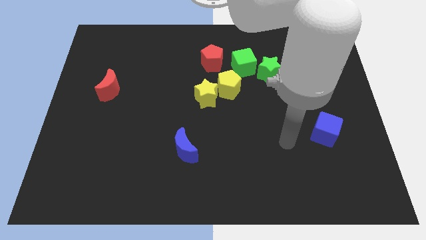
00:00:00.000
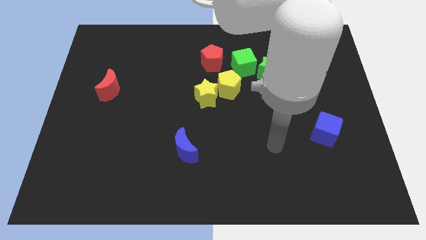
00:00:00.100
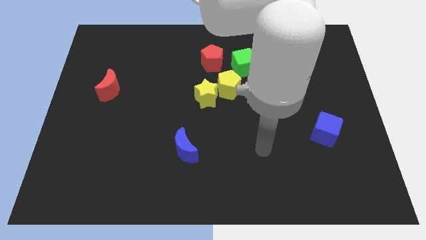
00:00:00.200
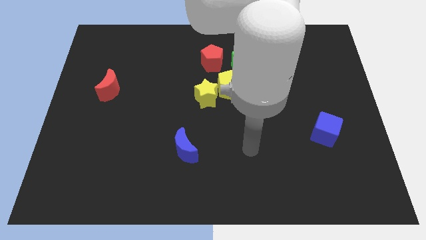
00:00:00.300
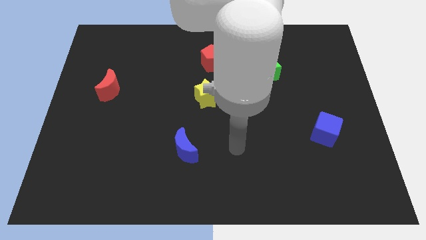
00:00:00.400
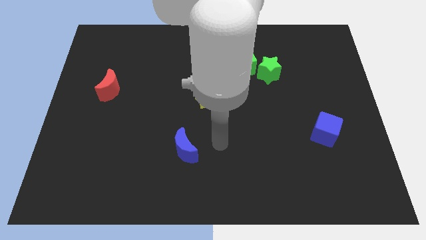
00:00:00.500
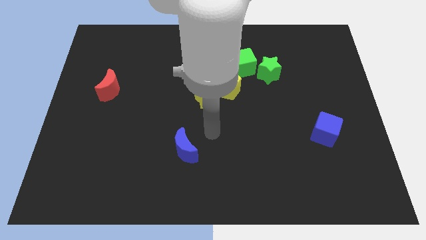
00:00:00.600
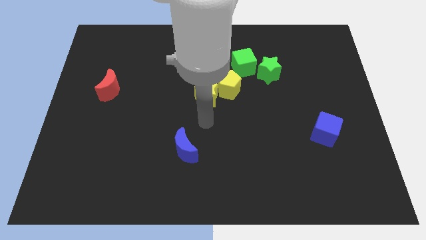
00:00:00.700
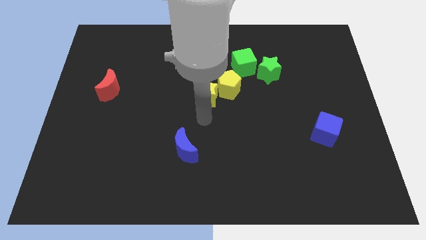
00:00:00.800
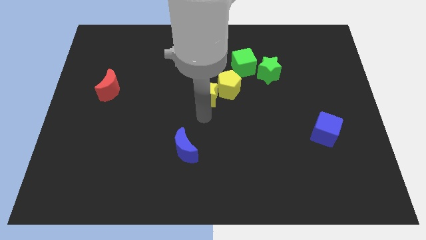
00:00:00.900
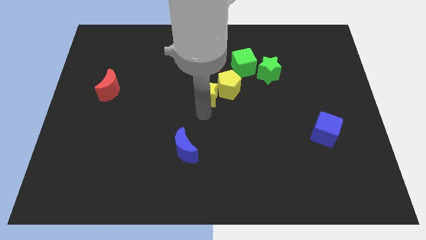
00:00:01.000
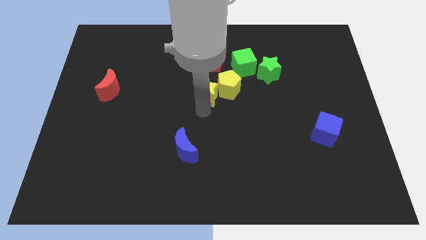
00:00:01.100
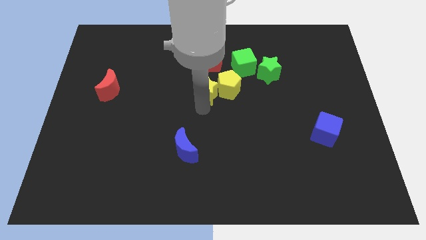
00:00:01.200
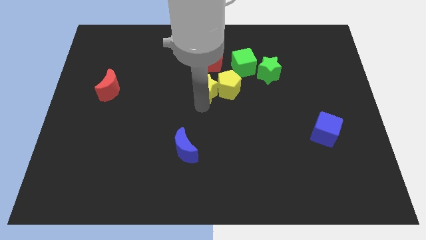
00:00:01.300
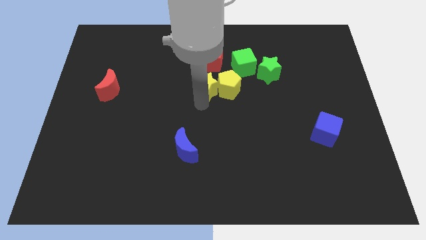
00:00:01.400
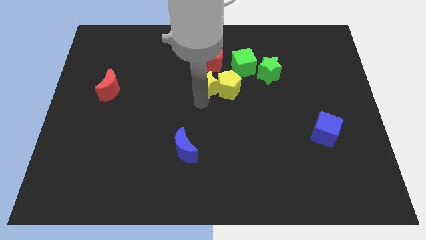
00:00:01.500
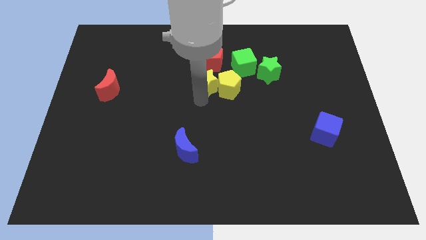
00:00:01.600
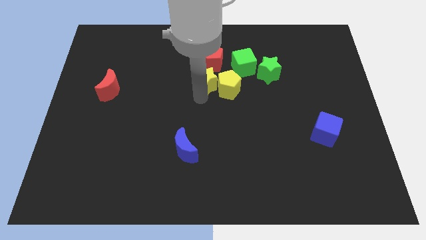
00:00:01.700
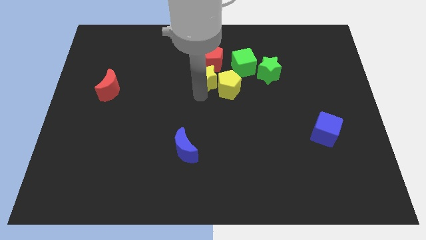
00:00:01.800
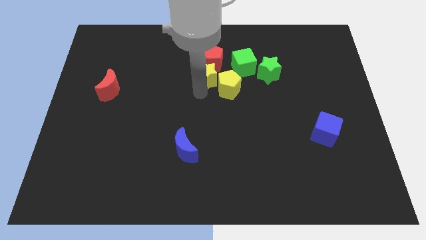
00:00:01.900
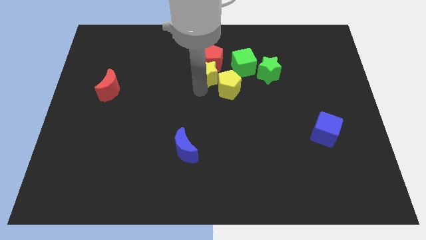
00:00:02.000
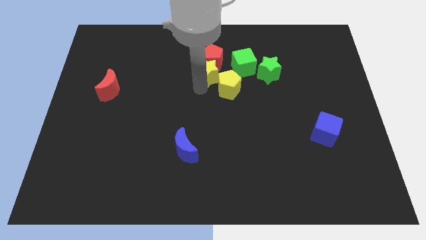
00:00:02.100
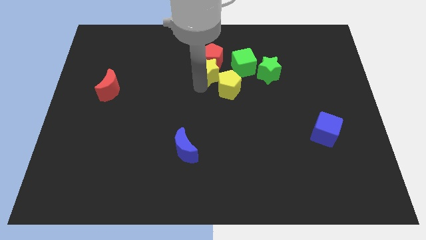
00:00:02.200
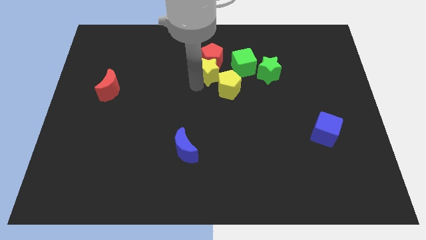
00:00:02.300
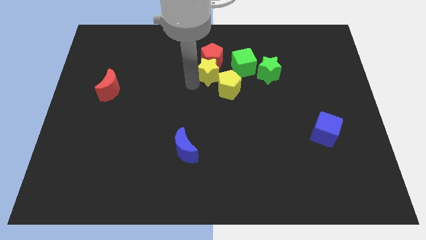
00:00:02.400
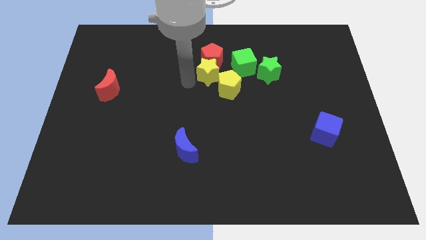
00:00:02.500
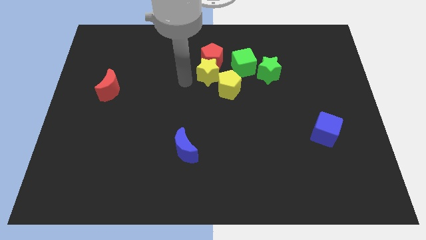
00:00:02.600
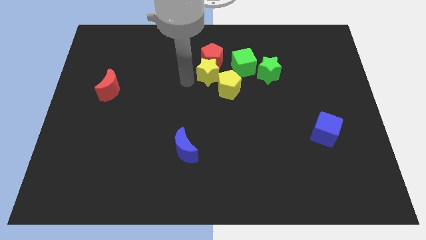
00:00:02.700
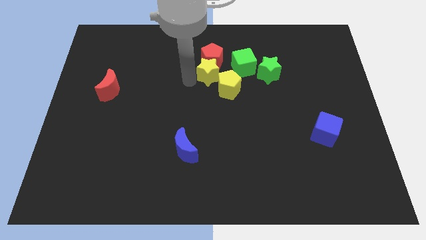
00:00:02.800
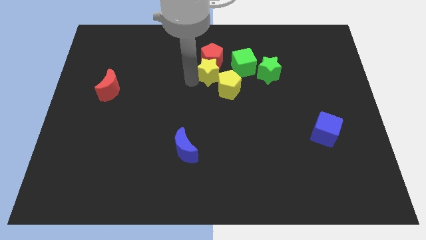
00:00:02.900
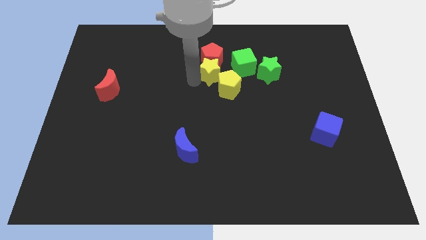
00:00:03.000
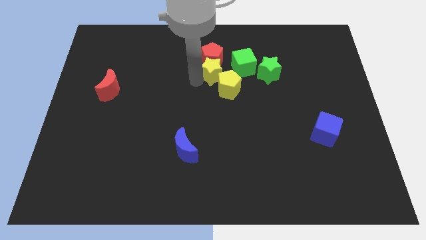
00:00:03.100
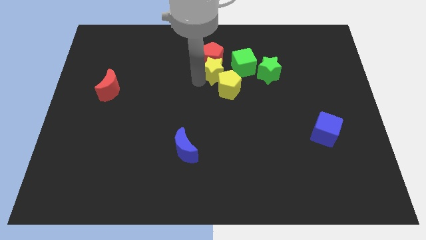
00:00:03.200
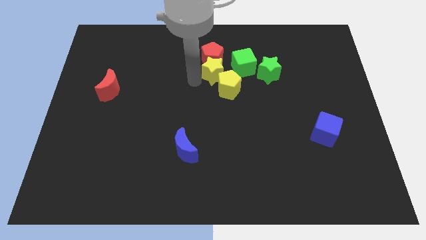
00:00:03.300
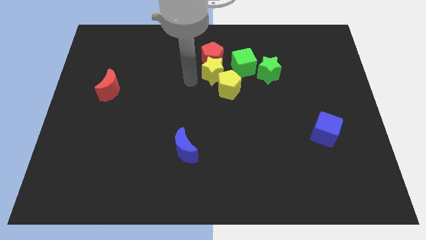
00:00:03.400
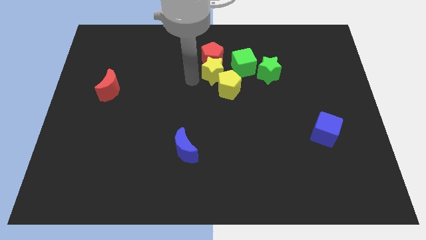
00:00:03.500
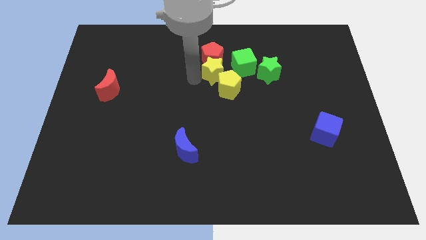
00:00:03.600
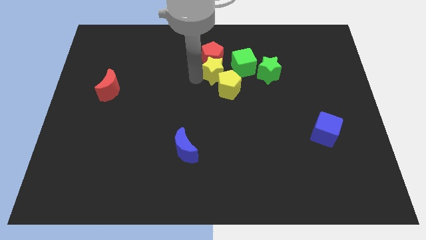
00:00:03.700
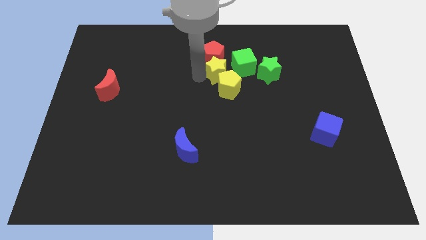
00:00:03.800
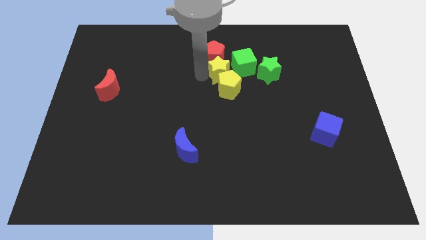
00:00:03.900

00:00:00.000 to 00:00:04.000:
push the yellow star a little bit diagonally up and right

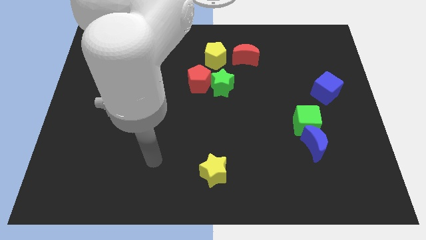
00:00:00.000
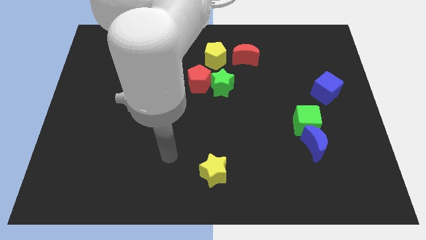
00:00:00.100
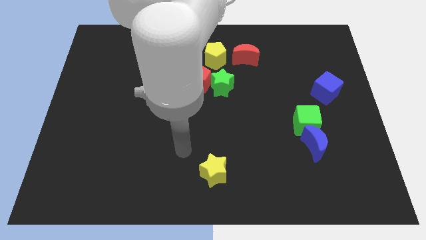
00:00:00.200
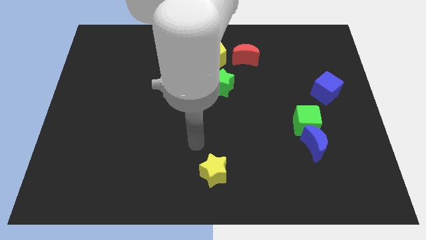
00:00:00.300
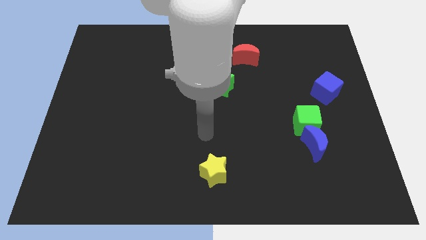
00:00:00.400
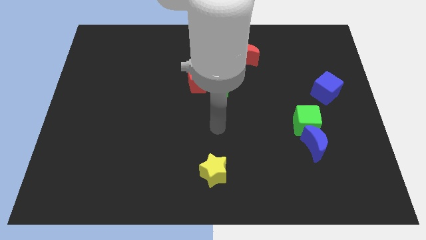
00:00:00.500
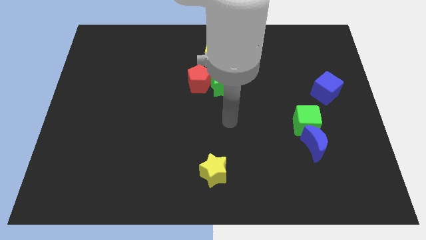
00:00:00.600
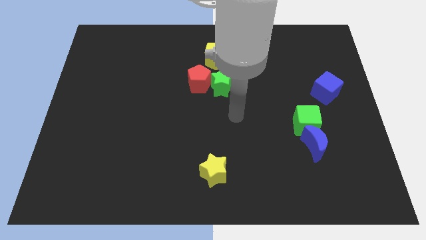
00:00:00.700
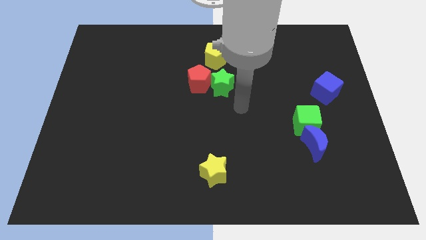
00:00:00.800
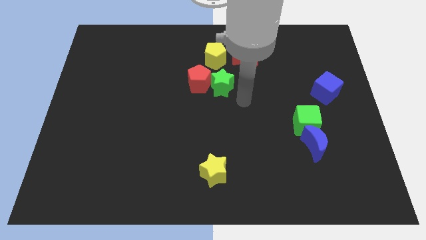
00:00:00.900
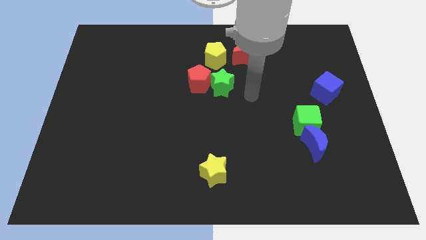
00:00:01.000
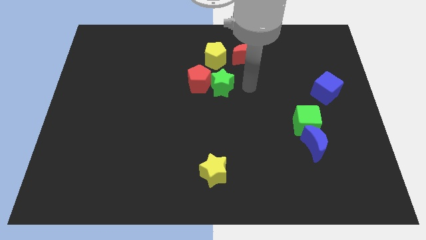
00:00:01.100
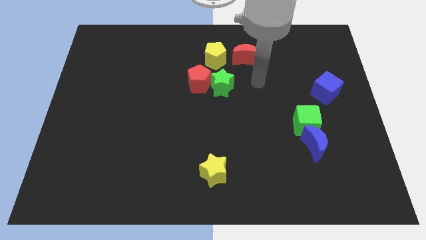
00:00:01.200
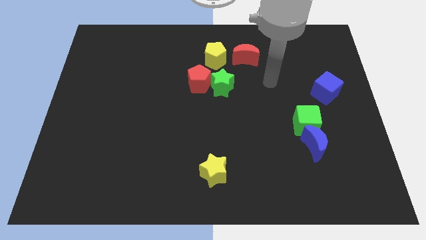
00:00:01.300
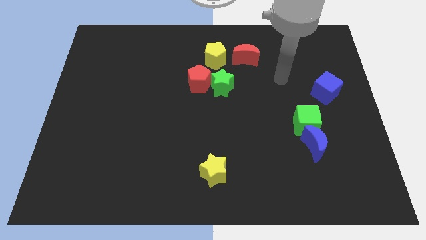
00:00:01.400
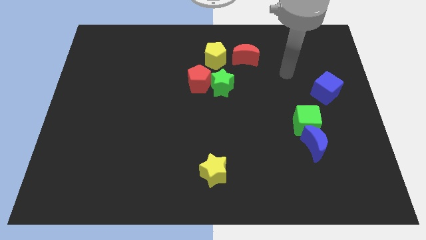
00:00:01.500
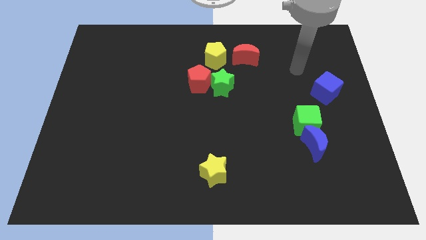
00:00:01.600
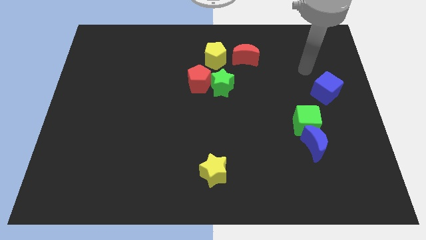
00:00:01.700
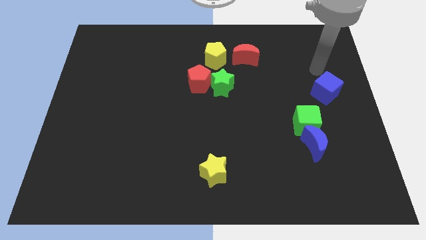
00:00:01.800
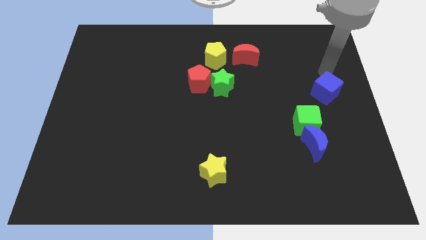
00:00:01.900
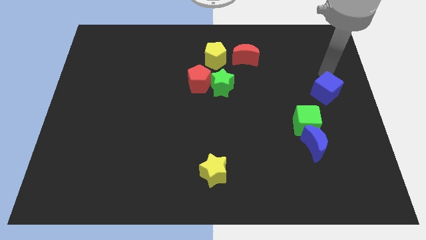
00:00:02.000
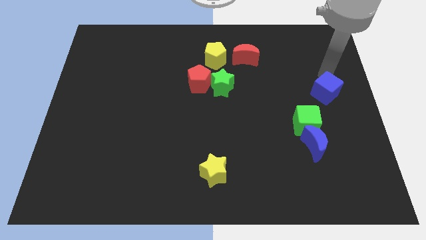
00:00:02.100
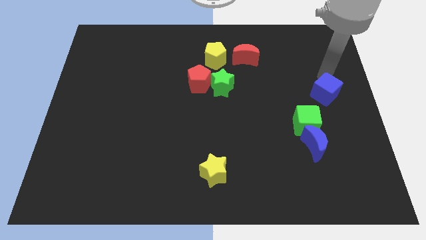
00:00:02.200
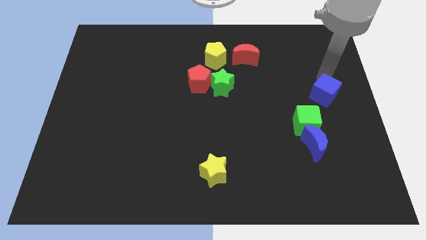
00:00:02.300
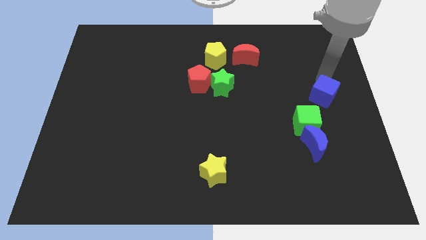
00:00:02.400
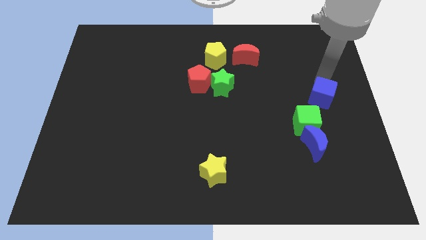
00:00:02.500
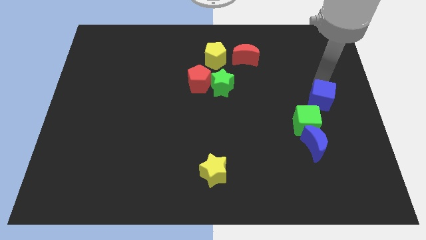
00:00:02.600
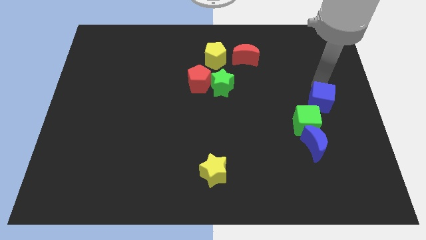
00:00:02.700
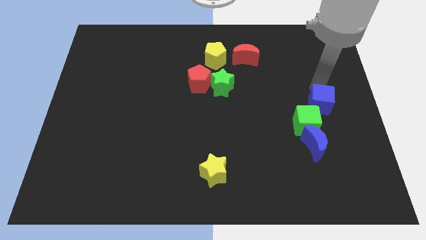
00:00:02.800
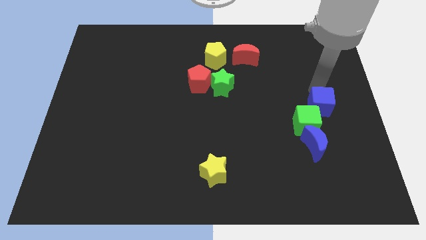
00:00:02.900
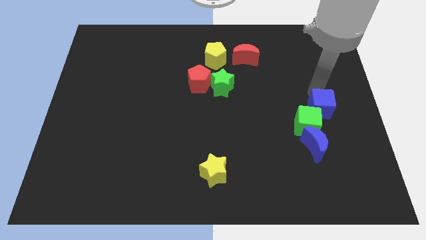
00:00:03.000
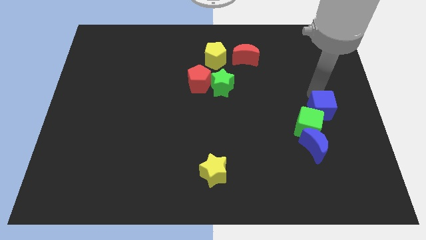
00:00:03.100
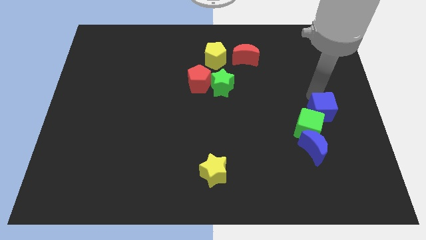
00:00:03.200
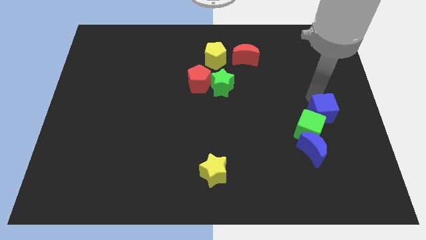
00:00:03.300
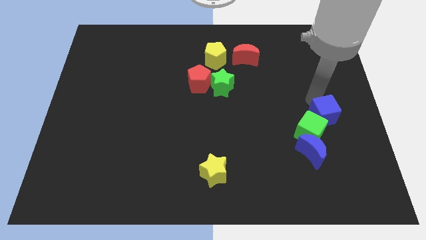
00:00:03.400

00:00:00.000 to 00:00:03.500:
move the blue cube slightly downwards

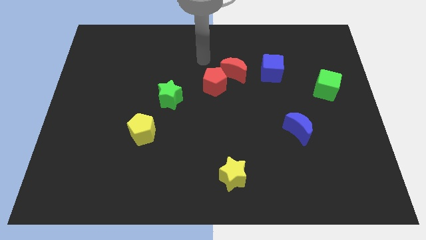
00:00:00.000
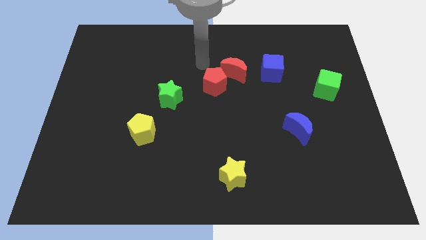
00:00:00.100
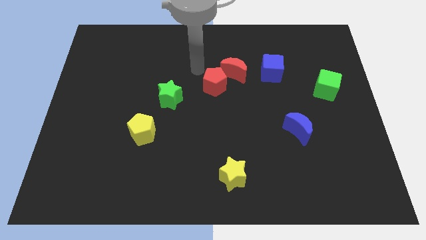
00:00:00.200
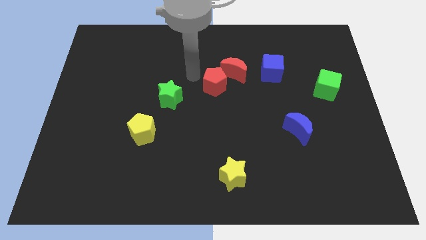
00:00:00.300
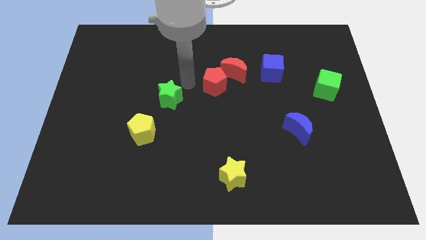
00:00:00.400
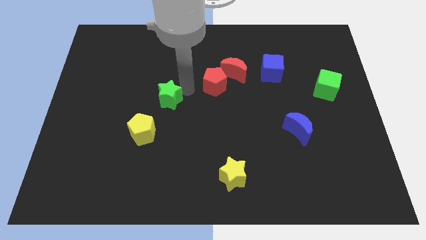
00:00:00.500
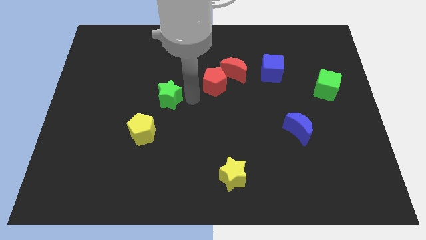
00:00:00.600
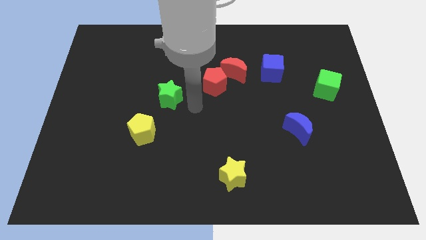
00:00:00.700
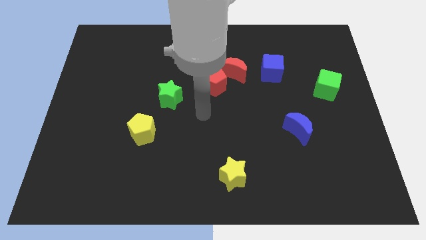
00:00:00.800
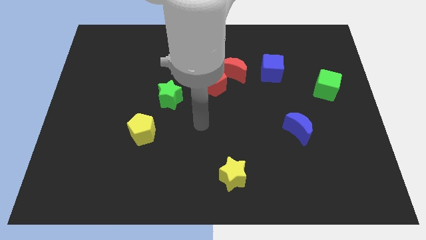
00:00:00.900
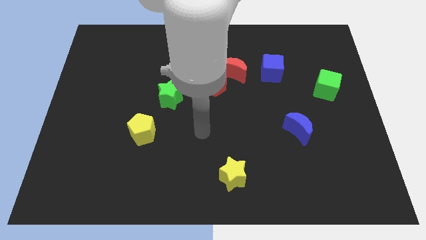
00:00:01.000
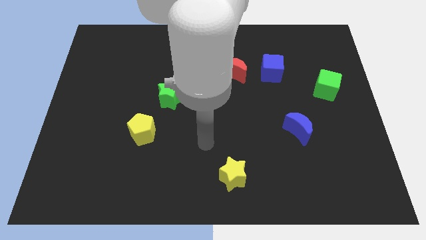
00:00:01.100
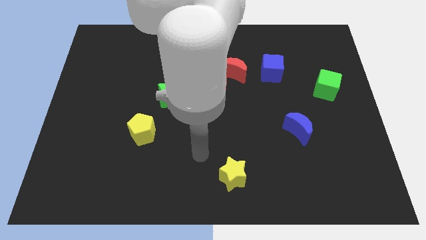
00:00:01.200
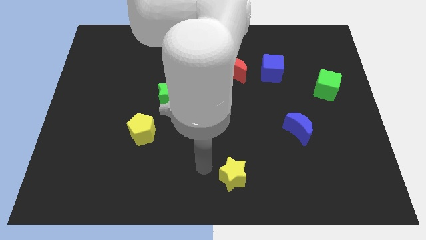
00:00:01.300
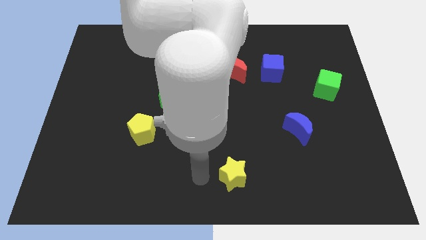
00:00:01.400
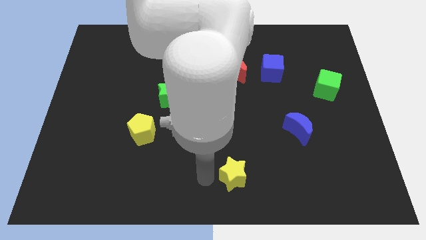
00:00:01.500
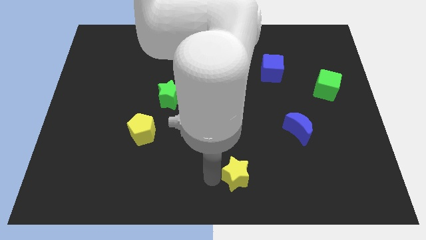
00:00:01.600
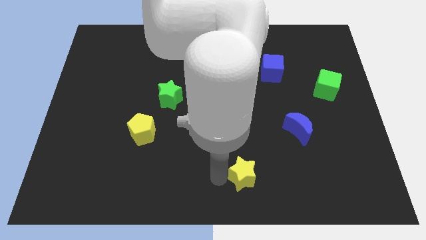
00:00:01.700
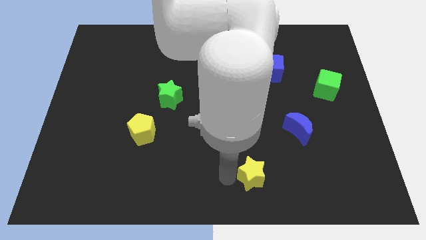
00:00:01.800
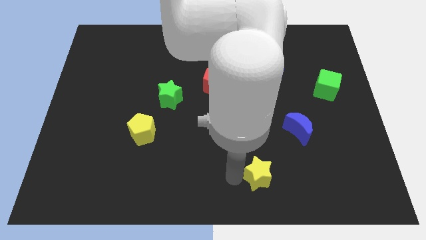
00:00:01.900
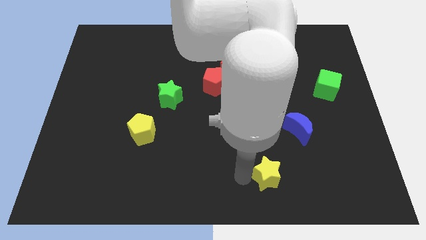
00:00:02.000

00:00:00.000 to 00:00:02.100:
push the yellow star to the right slightly
